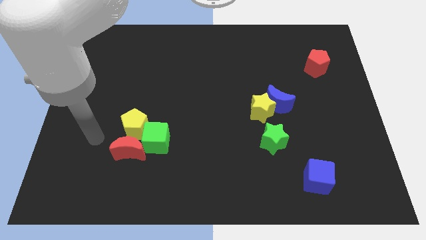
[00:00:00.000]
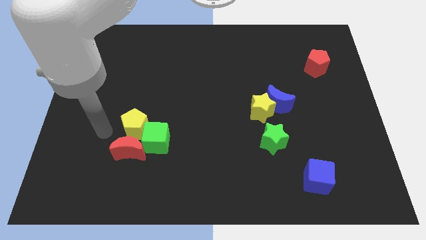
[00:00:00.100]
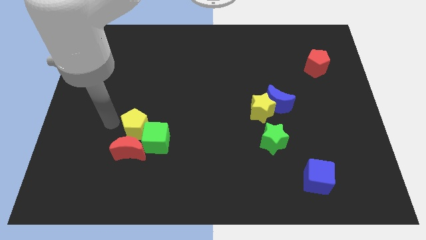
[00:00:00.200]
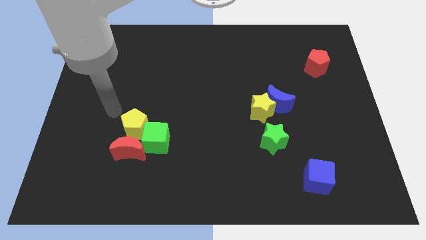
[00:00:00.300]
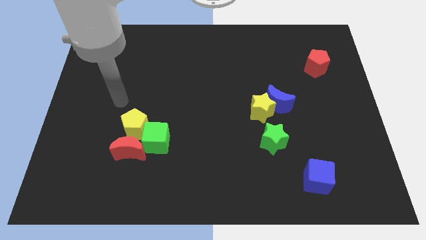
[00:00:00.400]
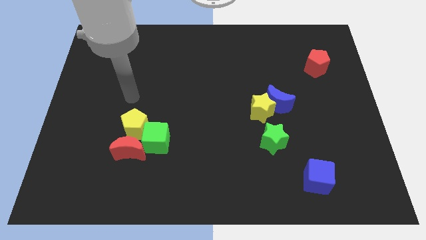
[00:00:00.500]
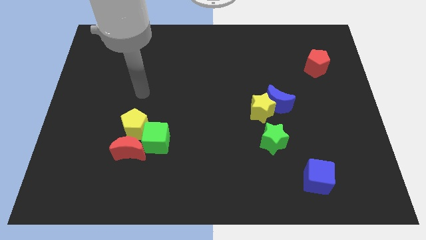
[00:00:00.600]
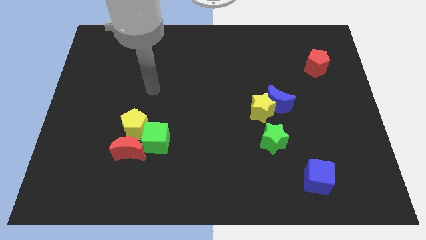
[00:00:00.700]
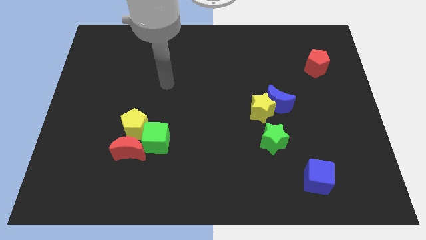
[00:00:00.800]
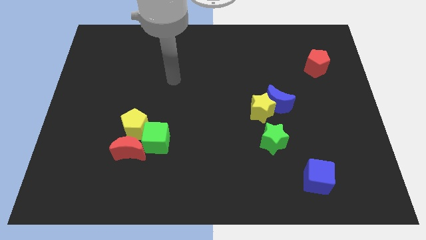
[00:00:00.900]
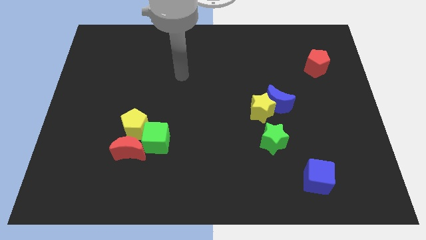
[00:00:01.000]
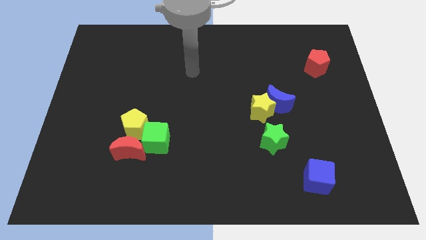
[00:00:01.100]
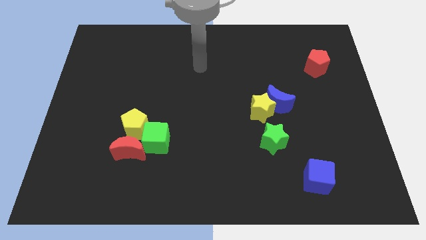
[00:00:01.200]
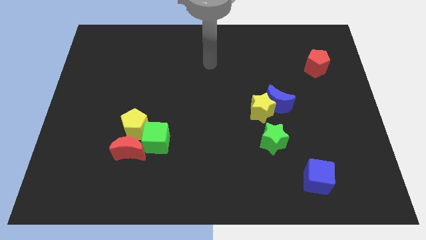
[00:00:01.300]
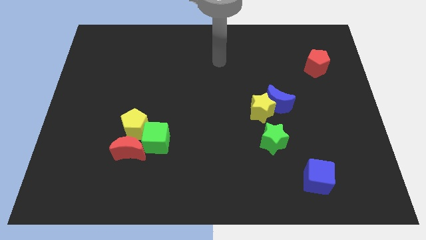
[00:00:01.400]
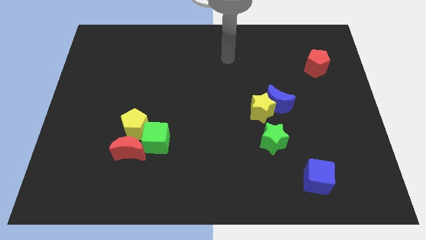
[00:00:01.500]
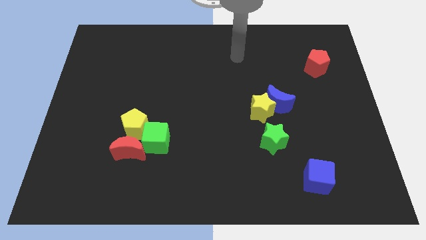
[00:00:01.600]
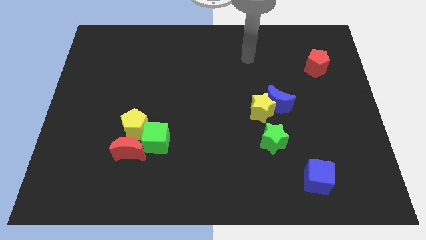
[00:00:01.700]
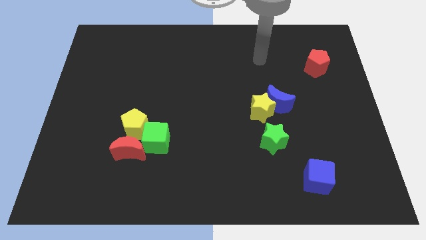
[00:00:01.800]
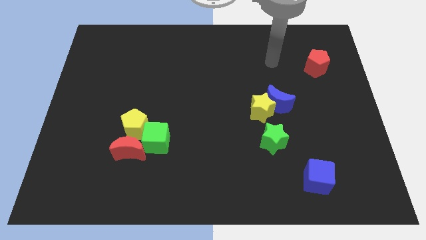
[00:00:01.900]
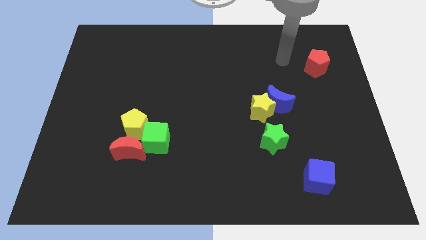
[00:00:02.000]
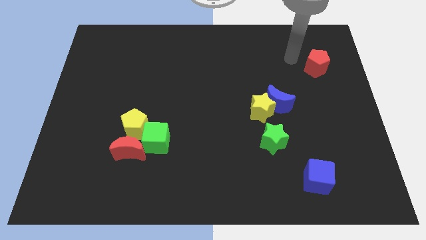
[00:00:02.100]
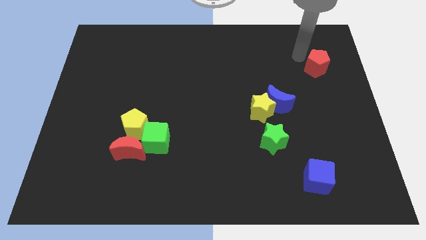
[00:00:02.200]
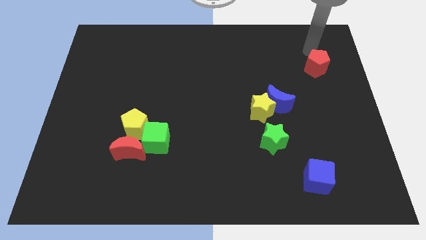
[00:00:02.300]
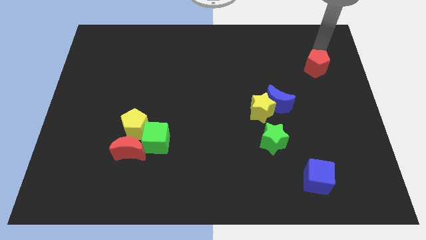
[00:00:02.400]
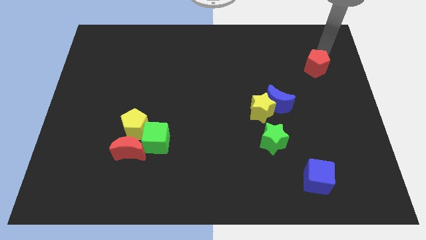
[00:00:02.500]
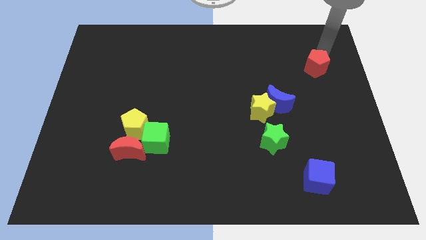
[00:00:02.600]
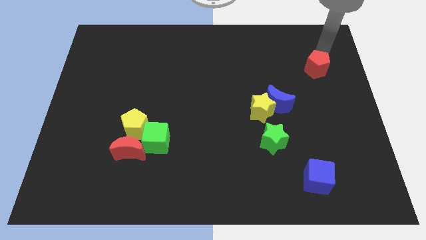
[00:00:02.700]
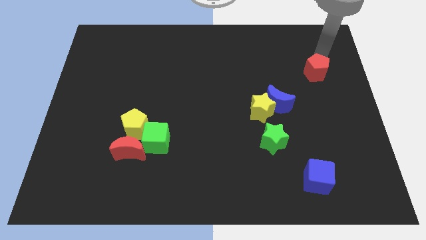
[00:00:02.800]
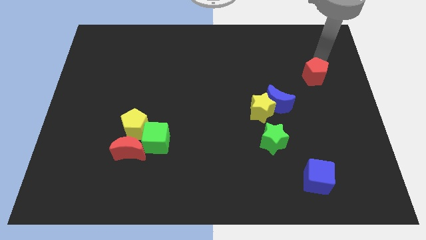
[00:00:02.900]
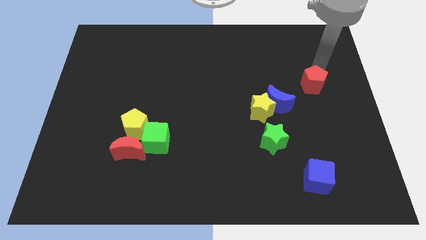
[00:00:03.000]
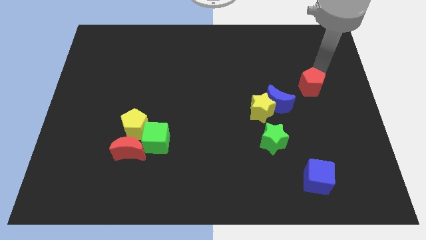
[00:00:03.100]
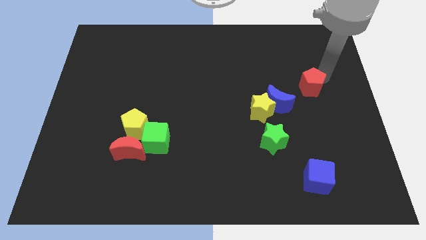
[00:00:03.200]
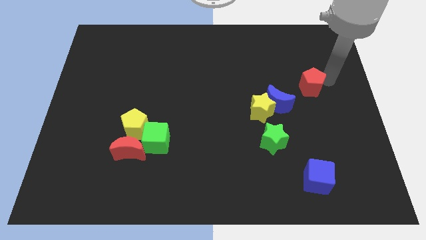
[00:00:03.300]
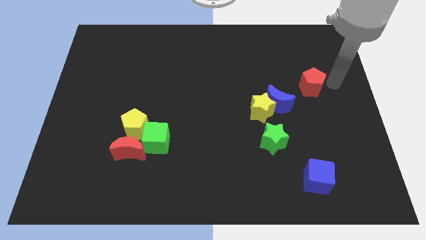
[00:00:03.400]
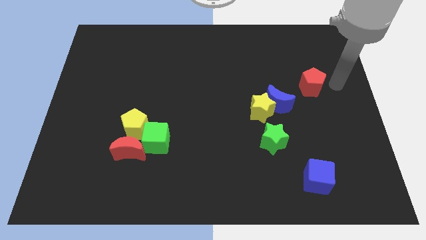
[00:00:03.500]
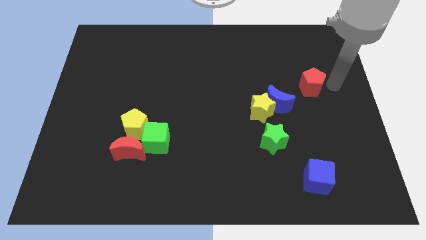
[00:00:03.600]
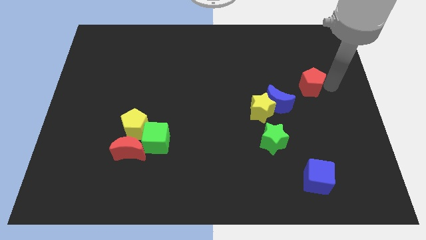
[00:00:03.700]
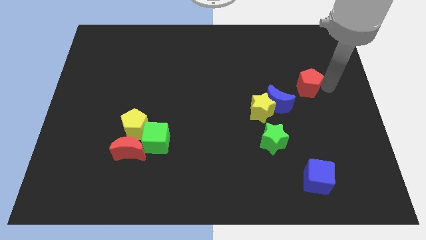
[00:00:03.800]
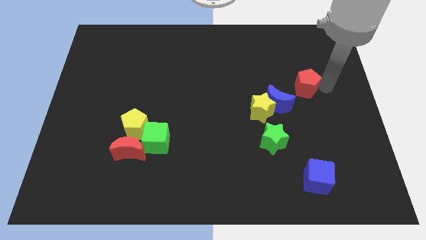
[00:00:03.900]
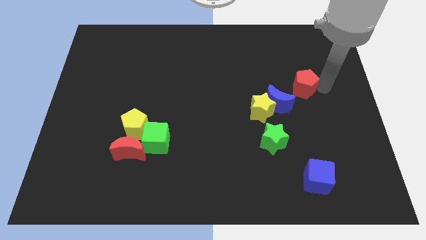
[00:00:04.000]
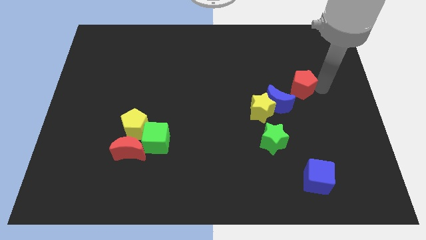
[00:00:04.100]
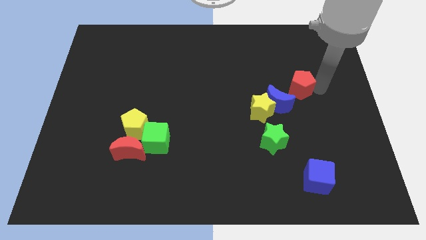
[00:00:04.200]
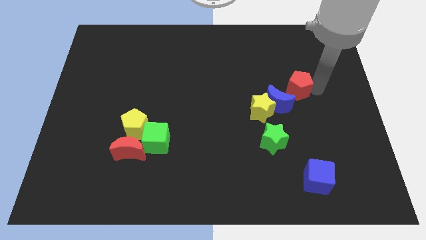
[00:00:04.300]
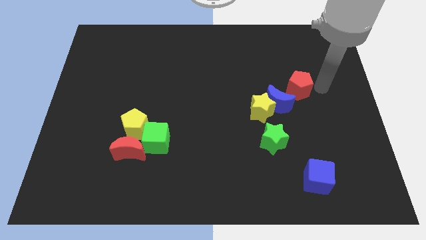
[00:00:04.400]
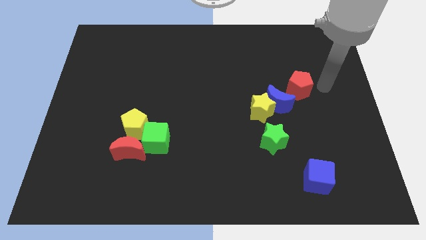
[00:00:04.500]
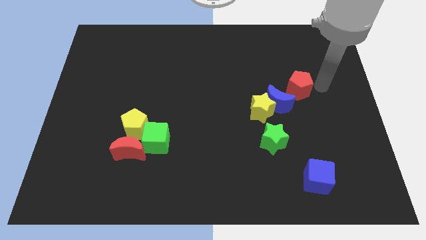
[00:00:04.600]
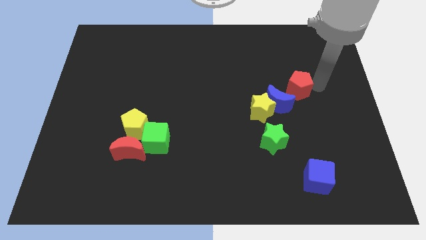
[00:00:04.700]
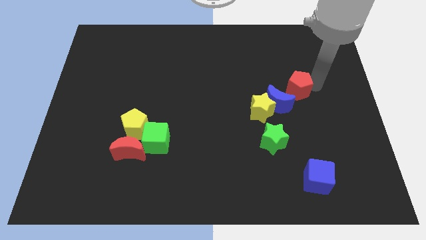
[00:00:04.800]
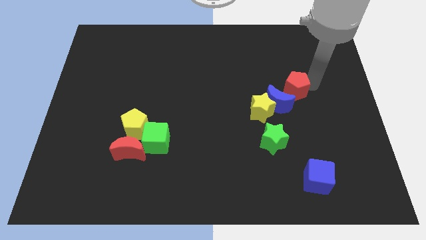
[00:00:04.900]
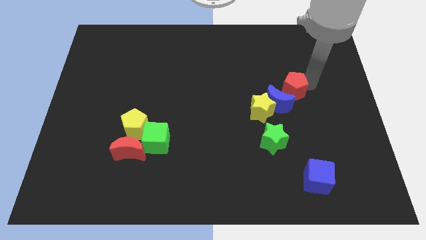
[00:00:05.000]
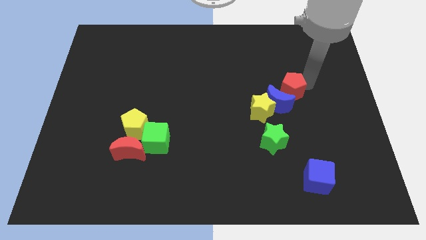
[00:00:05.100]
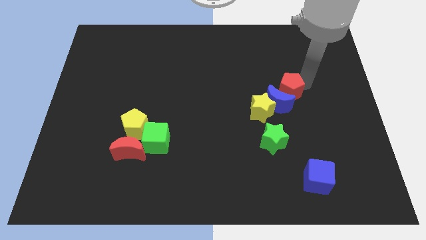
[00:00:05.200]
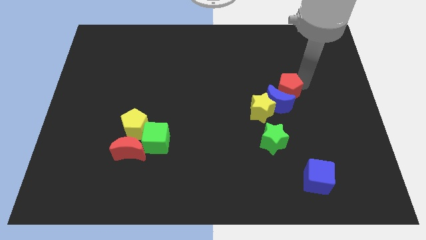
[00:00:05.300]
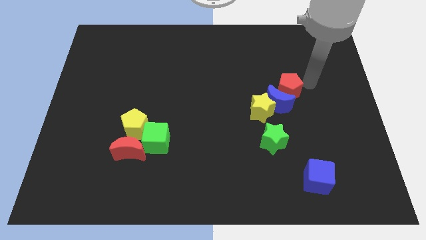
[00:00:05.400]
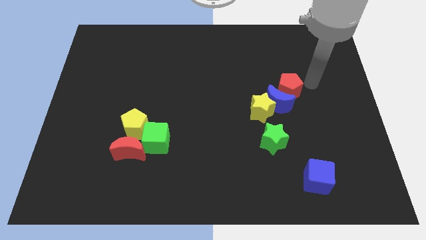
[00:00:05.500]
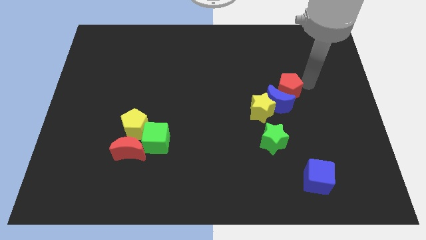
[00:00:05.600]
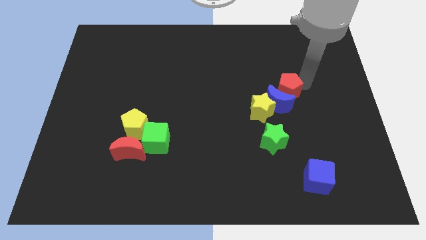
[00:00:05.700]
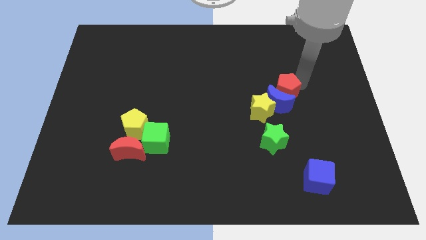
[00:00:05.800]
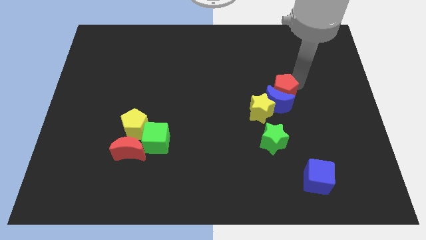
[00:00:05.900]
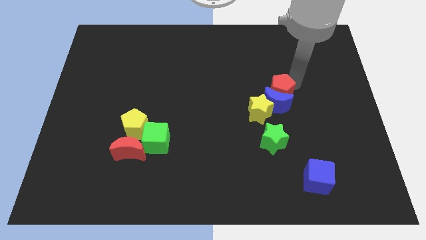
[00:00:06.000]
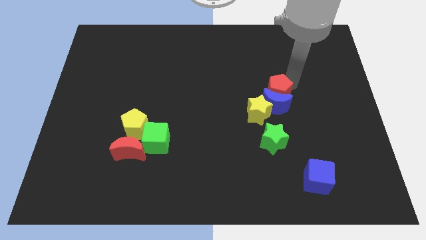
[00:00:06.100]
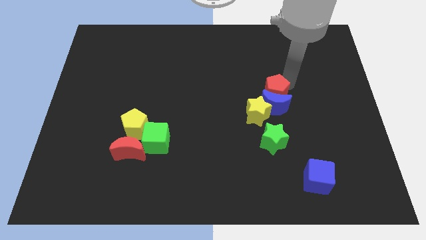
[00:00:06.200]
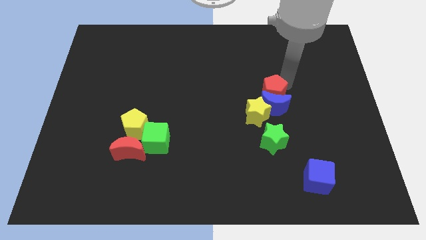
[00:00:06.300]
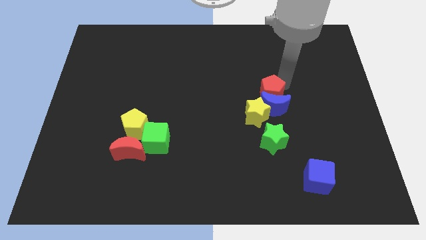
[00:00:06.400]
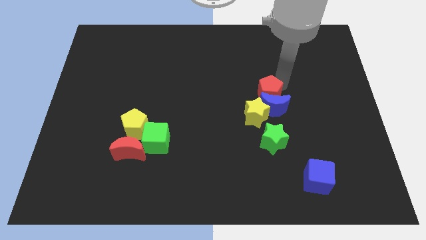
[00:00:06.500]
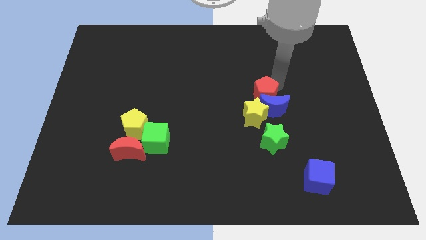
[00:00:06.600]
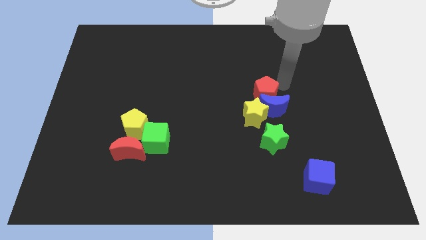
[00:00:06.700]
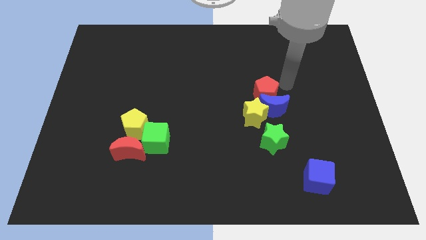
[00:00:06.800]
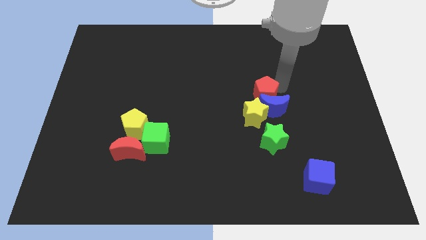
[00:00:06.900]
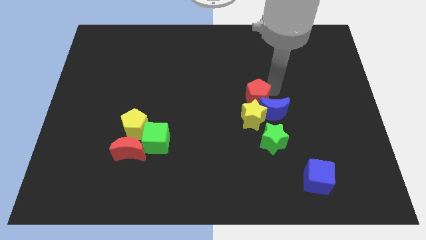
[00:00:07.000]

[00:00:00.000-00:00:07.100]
slide the red pentagon to the left side of the blue moon
